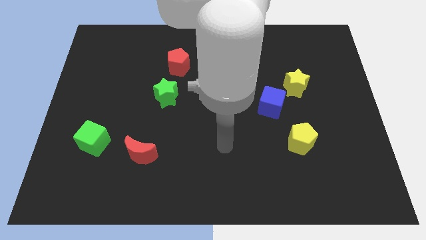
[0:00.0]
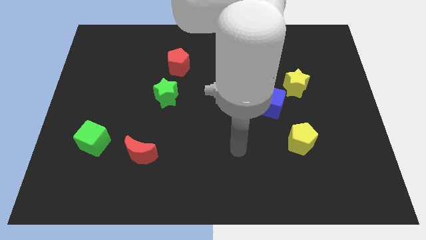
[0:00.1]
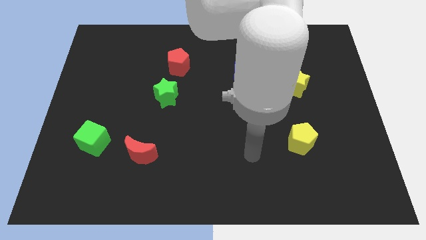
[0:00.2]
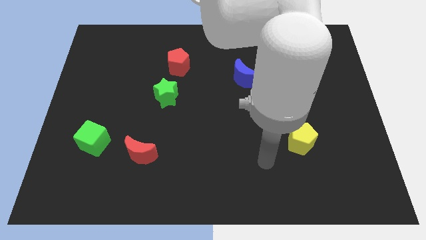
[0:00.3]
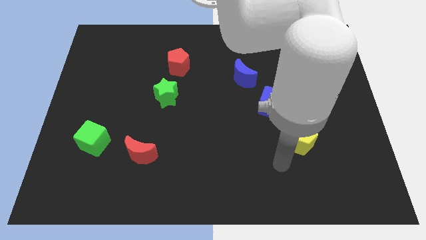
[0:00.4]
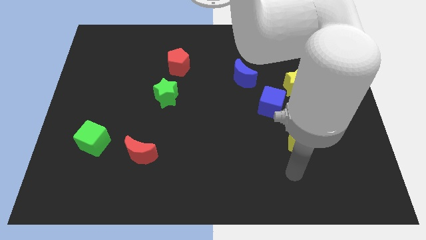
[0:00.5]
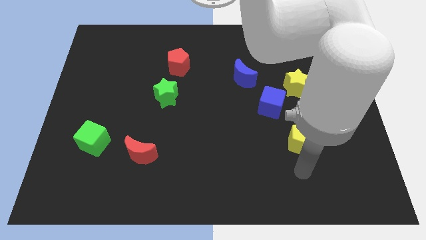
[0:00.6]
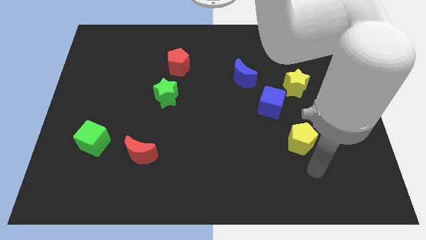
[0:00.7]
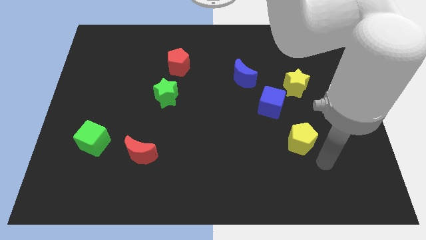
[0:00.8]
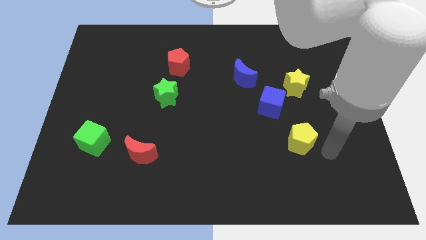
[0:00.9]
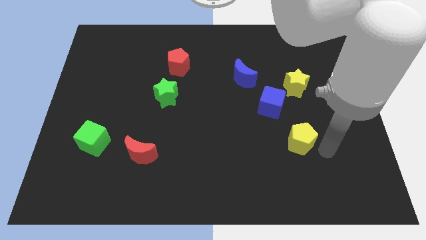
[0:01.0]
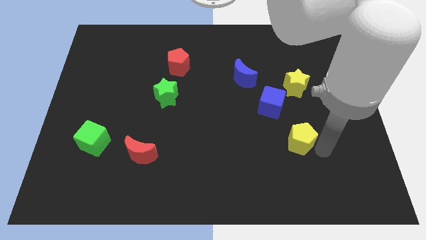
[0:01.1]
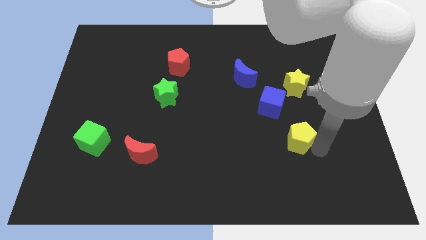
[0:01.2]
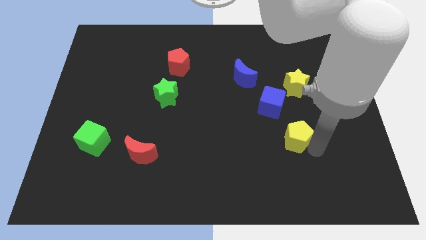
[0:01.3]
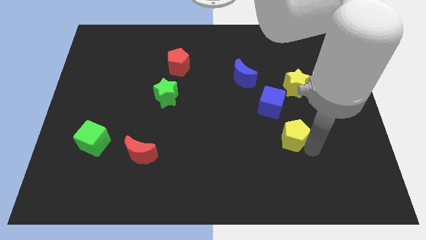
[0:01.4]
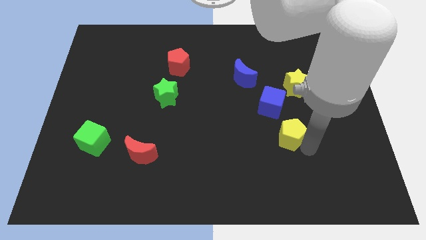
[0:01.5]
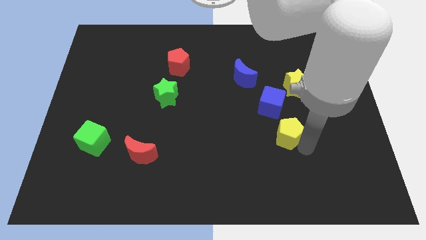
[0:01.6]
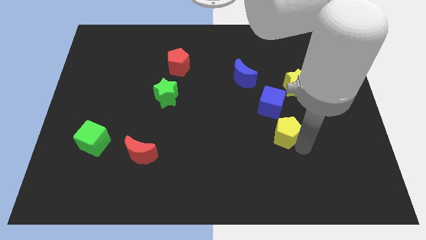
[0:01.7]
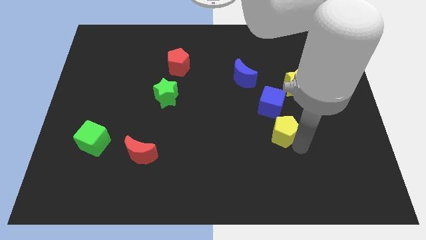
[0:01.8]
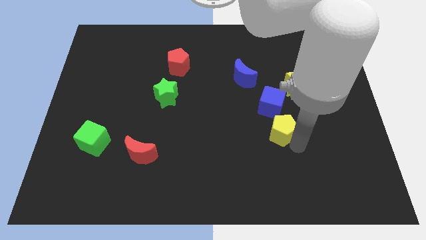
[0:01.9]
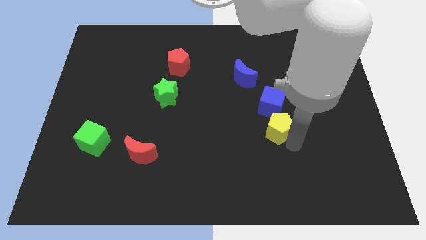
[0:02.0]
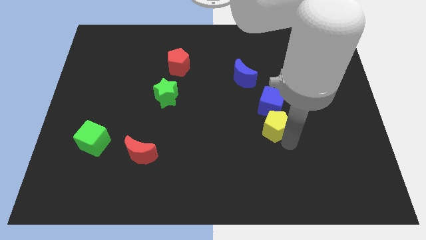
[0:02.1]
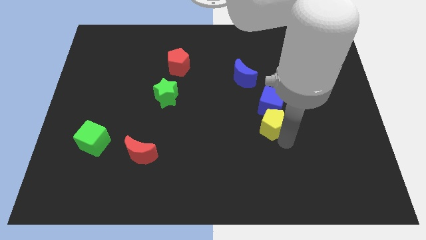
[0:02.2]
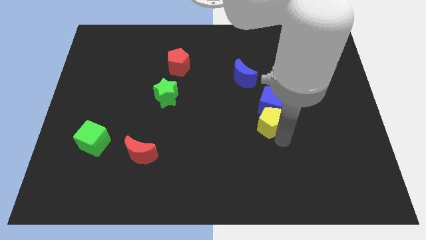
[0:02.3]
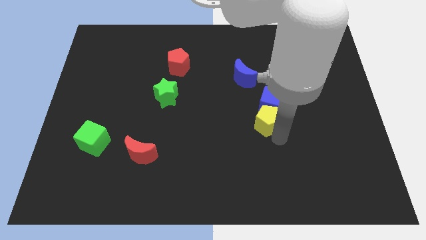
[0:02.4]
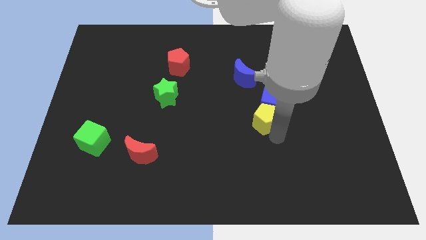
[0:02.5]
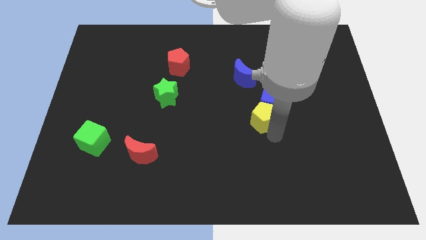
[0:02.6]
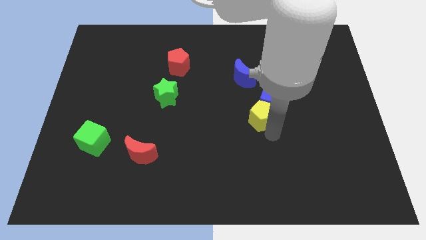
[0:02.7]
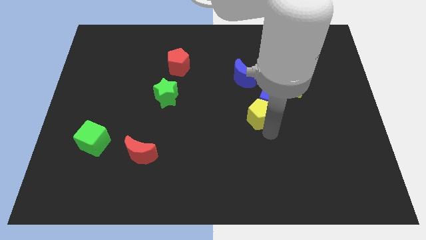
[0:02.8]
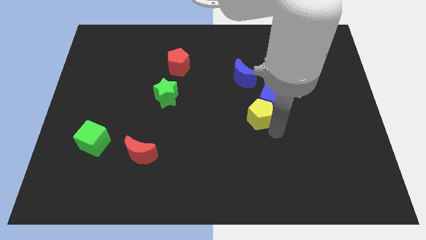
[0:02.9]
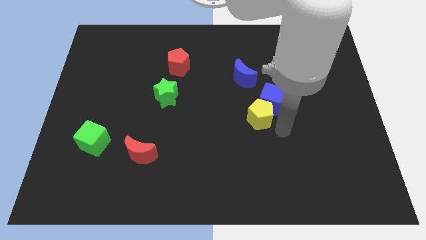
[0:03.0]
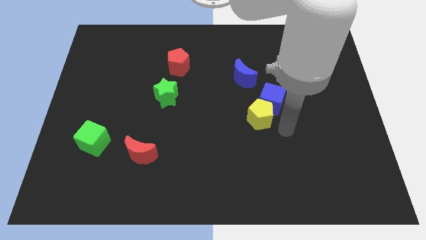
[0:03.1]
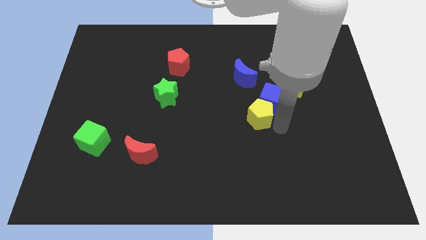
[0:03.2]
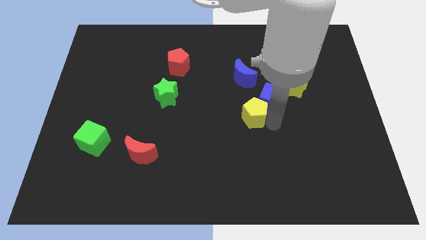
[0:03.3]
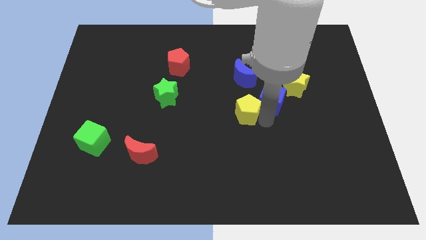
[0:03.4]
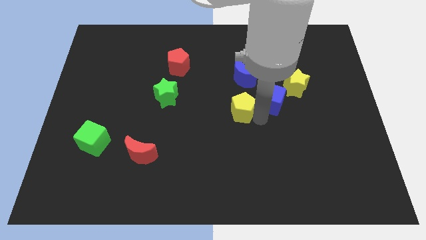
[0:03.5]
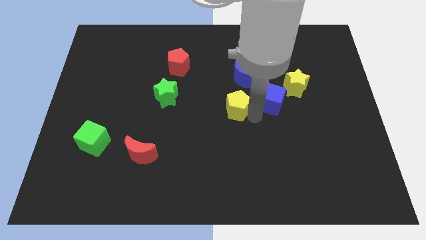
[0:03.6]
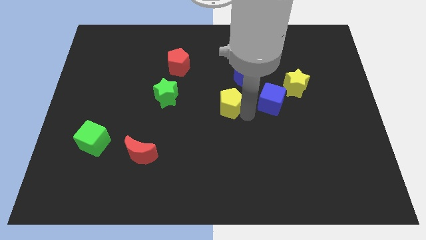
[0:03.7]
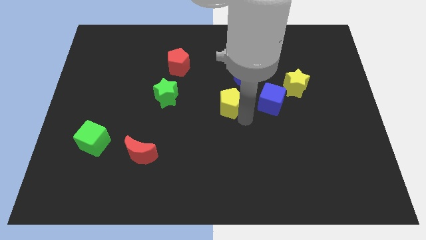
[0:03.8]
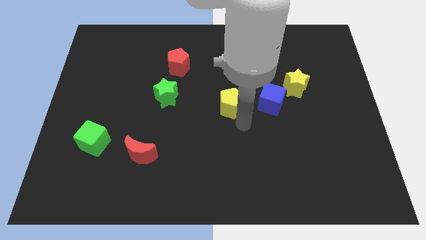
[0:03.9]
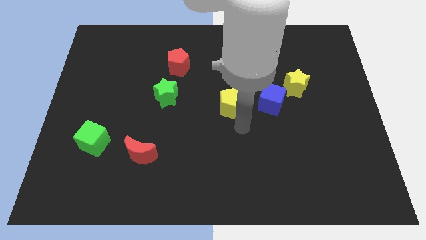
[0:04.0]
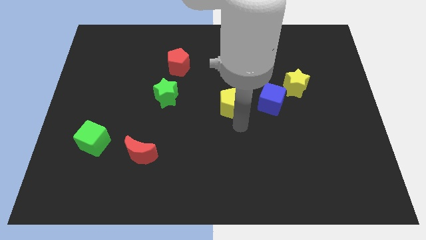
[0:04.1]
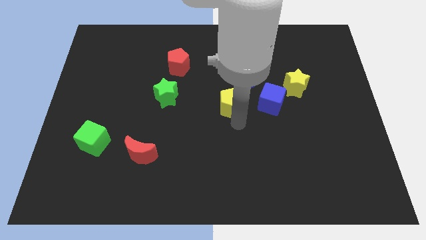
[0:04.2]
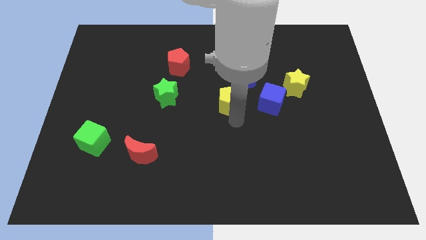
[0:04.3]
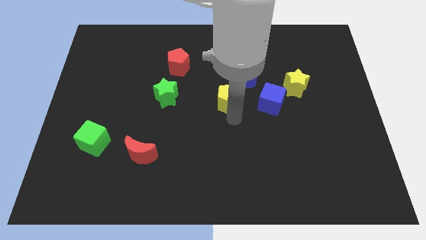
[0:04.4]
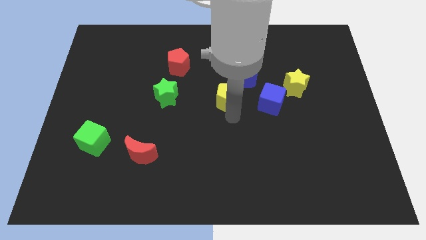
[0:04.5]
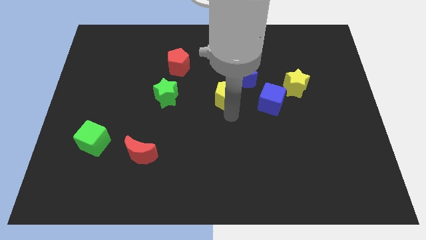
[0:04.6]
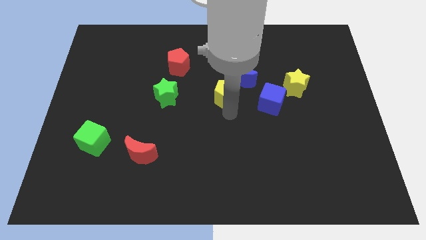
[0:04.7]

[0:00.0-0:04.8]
move the yellow pentagon diagonally up and to the left

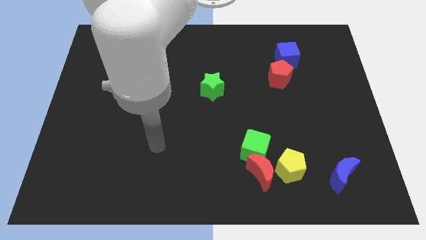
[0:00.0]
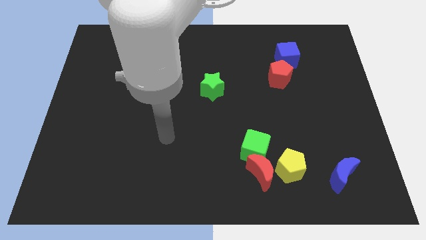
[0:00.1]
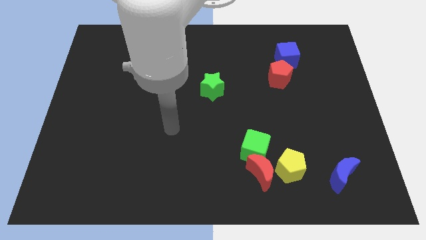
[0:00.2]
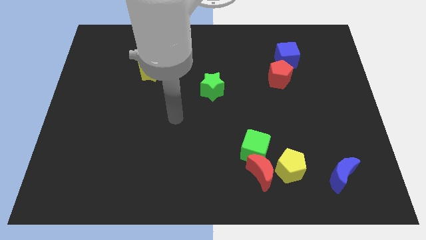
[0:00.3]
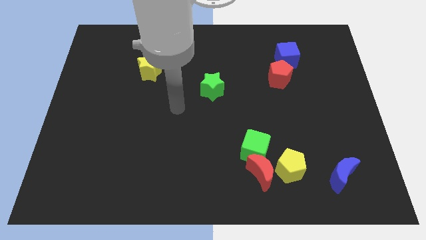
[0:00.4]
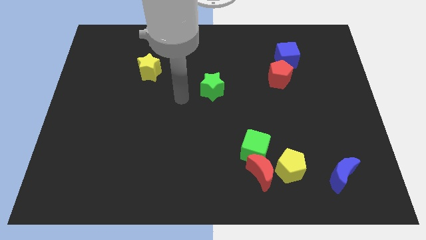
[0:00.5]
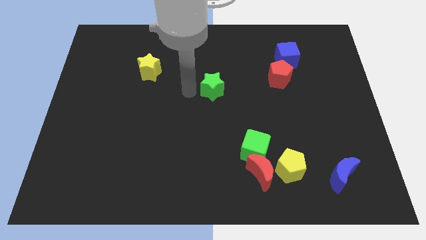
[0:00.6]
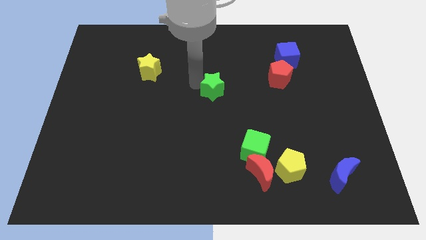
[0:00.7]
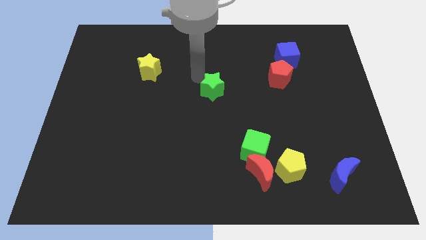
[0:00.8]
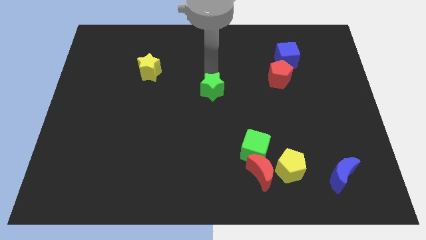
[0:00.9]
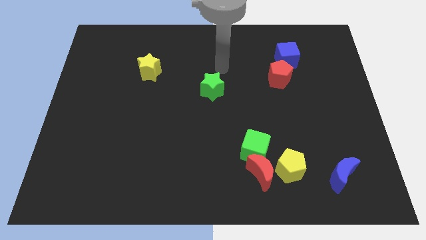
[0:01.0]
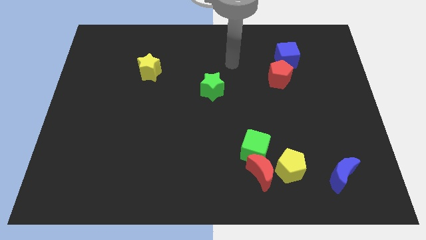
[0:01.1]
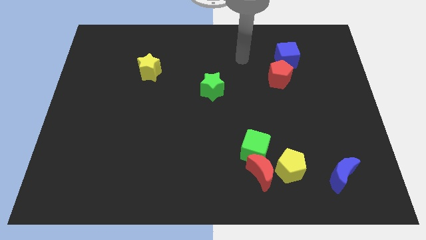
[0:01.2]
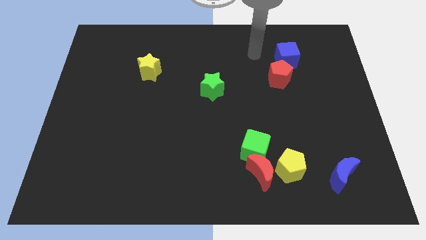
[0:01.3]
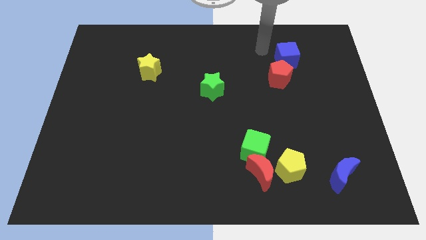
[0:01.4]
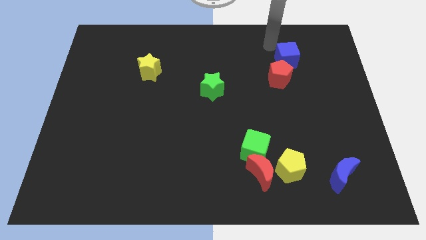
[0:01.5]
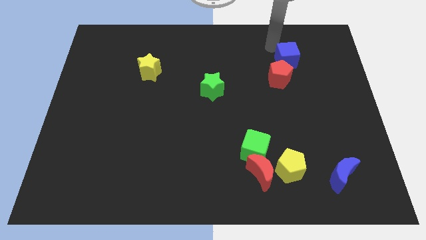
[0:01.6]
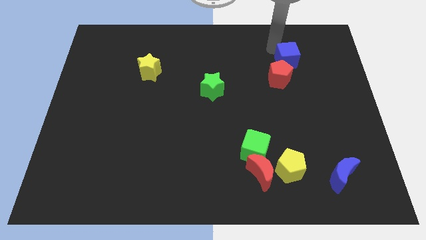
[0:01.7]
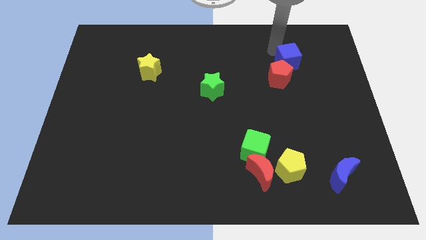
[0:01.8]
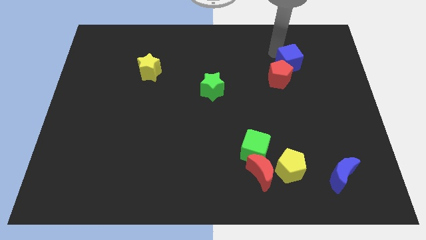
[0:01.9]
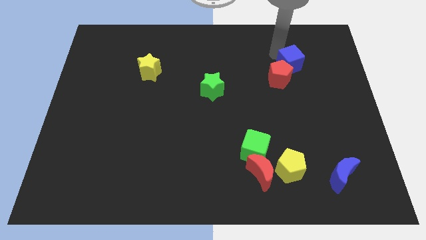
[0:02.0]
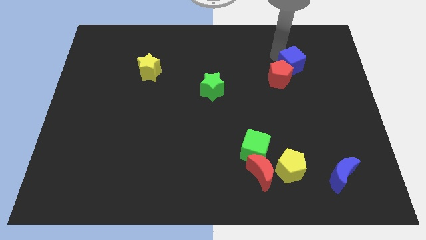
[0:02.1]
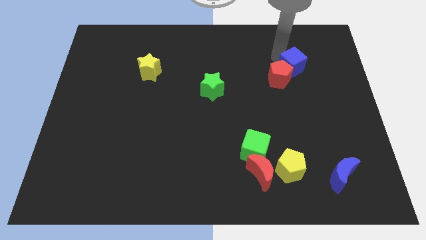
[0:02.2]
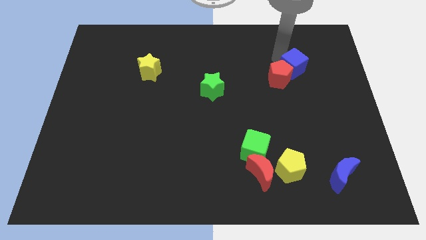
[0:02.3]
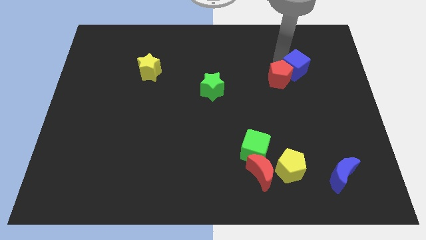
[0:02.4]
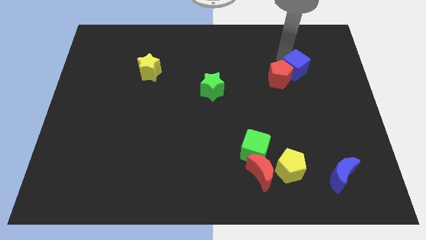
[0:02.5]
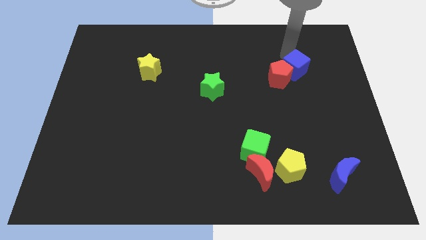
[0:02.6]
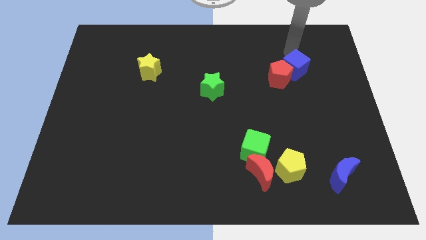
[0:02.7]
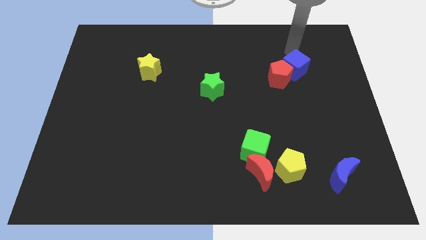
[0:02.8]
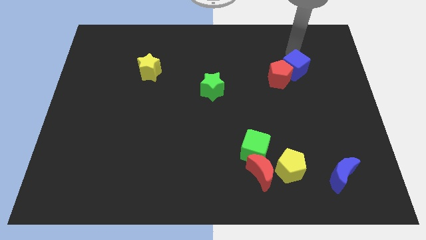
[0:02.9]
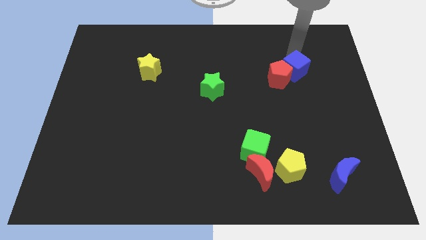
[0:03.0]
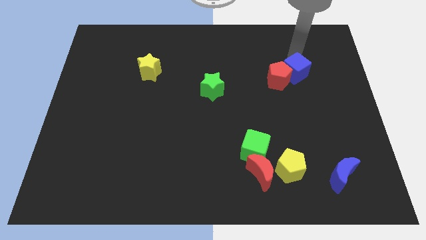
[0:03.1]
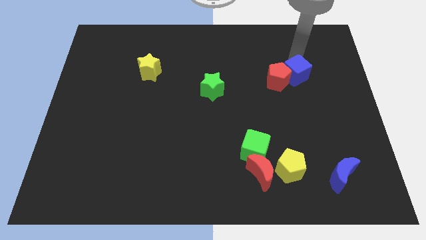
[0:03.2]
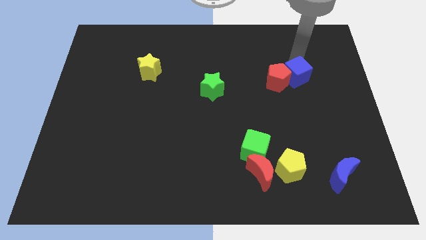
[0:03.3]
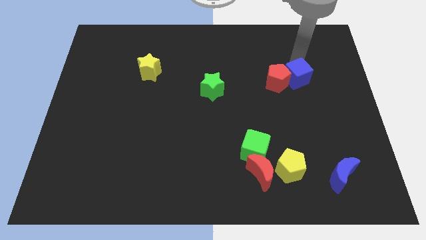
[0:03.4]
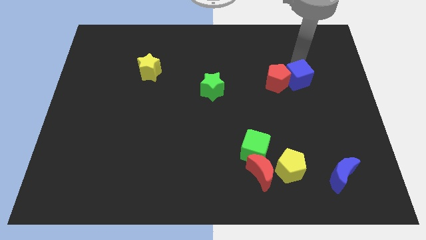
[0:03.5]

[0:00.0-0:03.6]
slightly push the blue cube downwards
